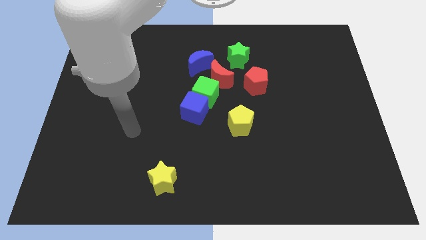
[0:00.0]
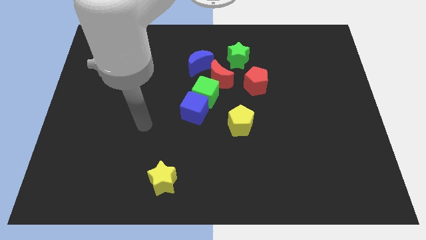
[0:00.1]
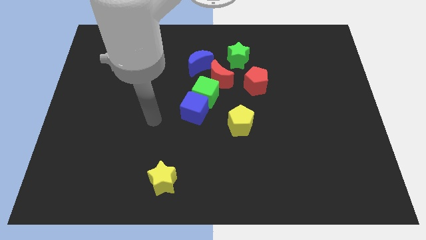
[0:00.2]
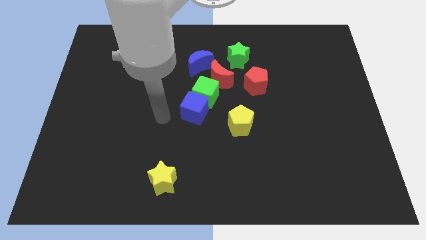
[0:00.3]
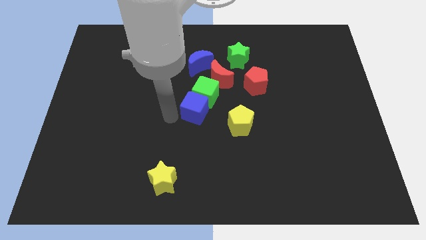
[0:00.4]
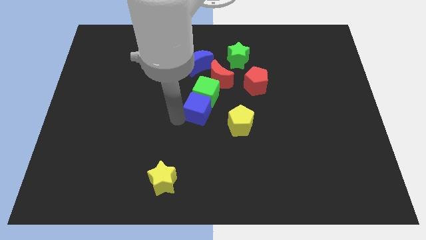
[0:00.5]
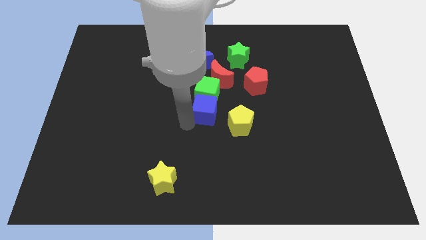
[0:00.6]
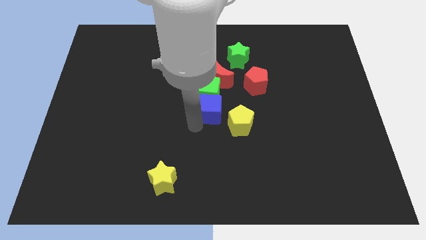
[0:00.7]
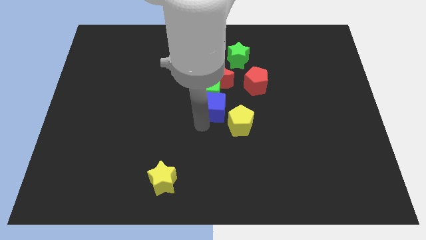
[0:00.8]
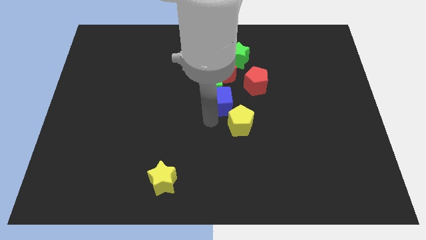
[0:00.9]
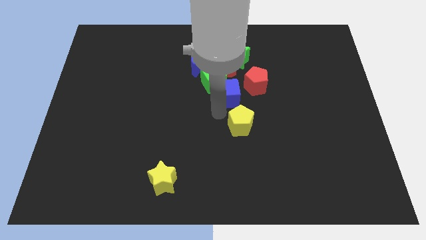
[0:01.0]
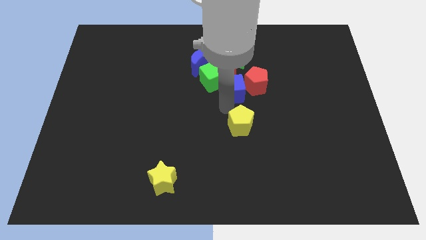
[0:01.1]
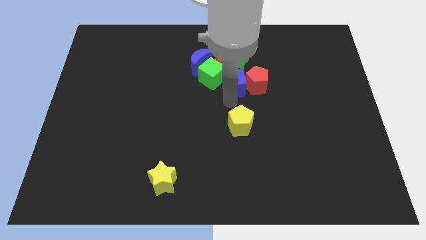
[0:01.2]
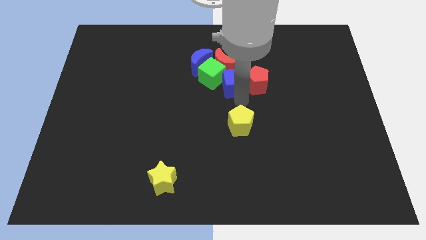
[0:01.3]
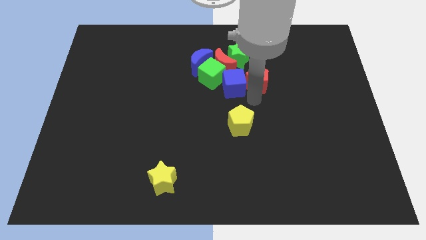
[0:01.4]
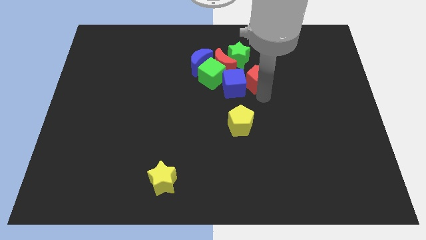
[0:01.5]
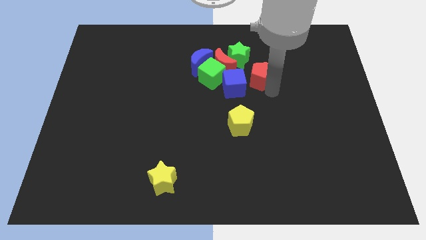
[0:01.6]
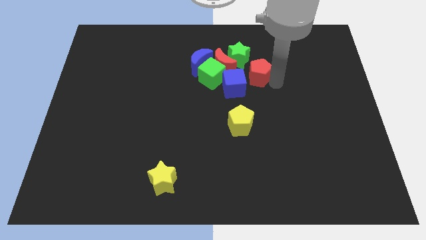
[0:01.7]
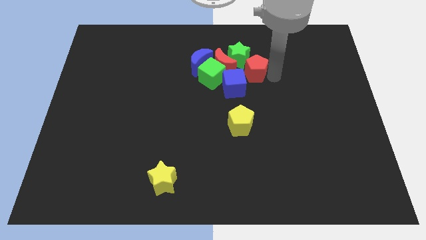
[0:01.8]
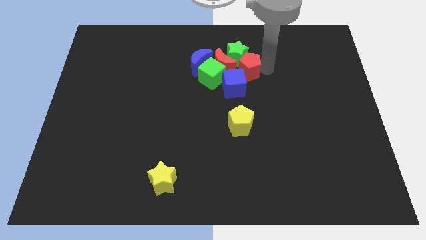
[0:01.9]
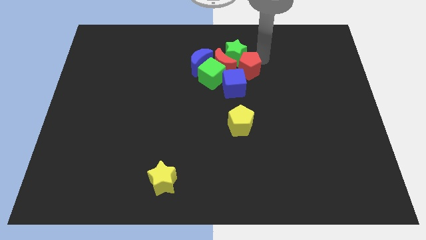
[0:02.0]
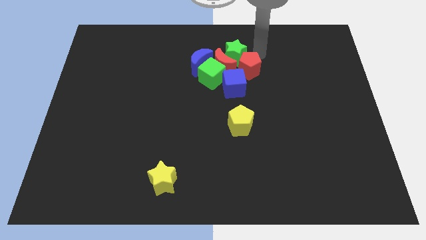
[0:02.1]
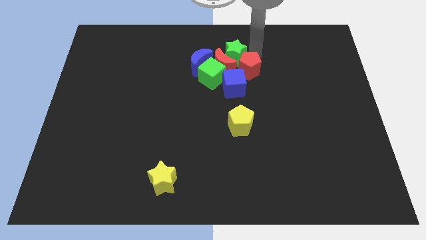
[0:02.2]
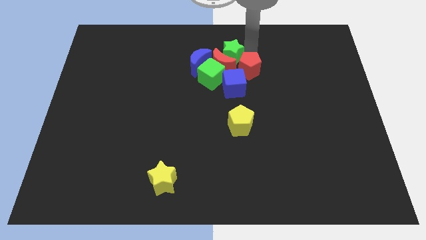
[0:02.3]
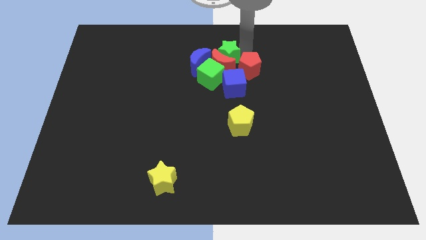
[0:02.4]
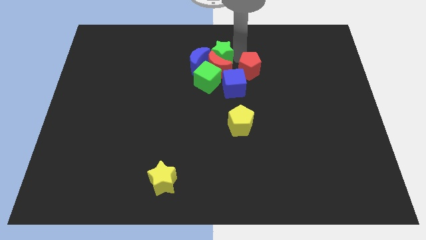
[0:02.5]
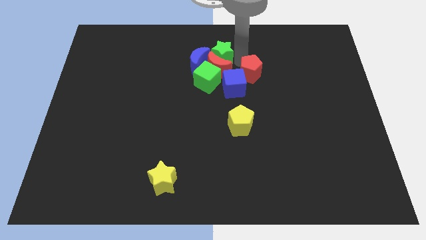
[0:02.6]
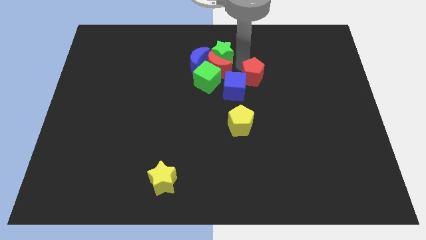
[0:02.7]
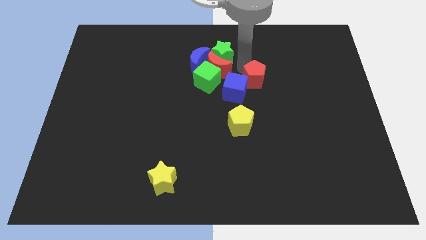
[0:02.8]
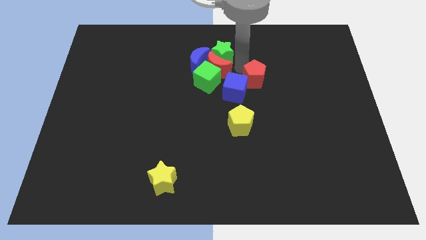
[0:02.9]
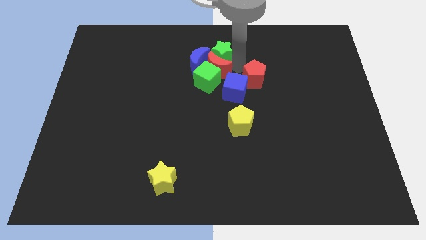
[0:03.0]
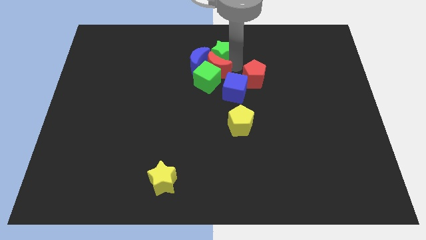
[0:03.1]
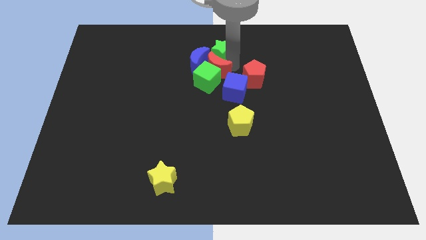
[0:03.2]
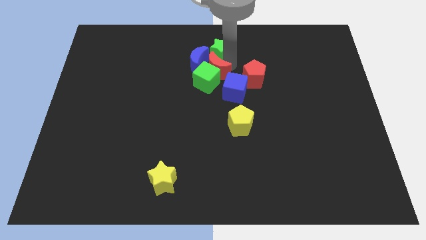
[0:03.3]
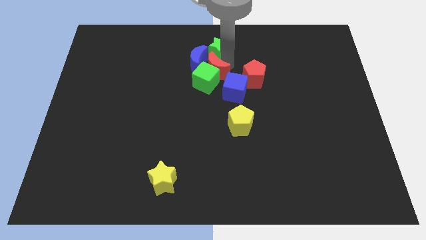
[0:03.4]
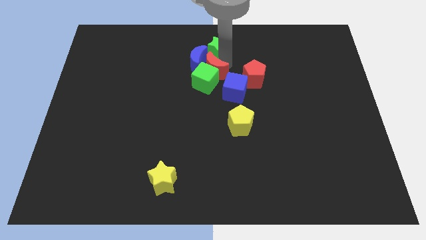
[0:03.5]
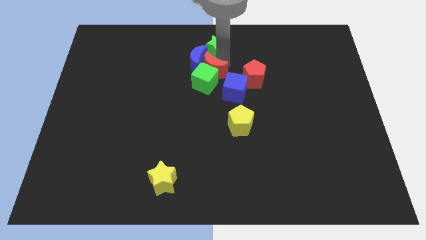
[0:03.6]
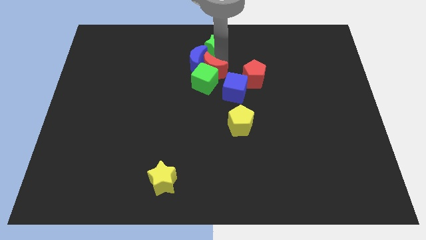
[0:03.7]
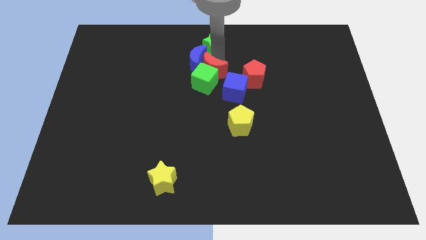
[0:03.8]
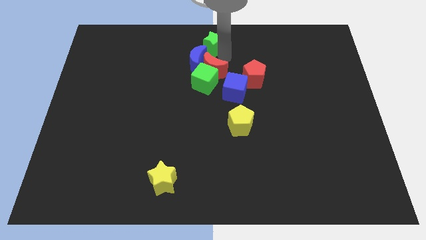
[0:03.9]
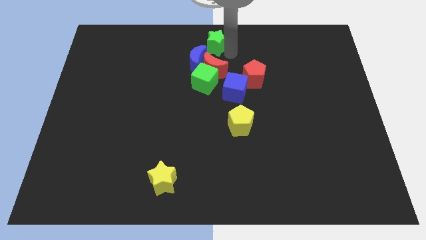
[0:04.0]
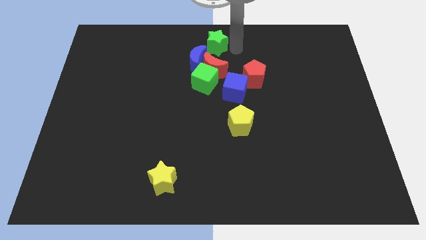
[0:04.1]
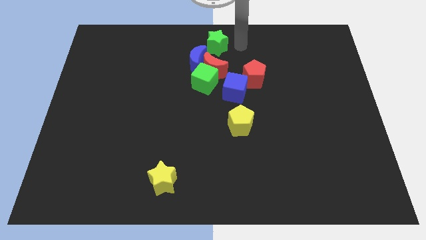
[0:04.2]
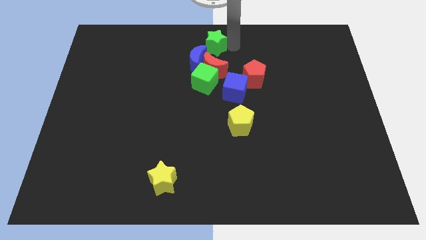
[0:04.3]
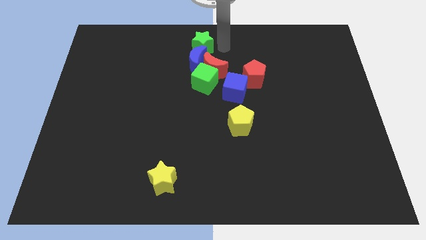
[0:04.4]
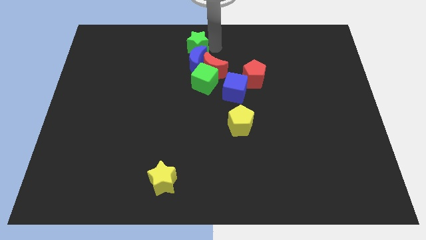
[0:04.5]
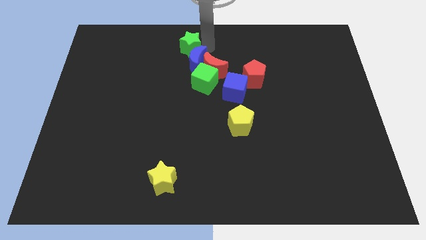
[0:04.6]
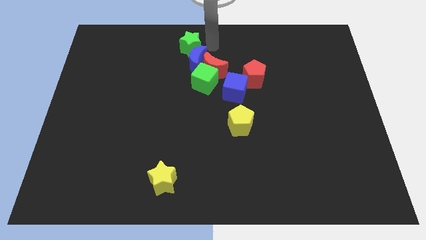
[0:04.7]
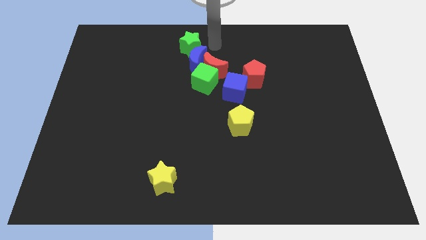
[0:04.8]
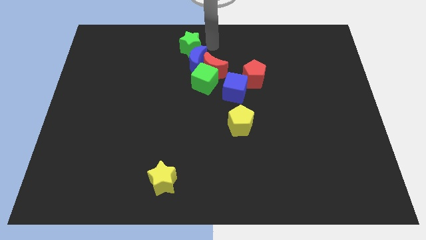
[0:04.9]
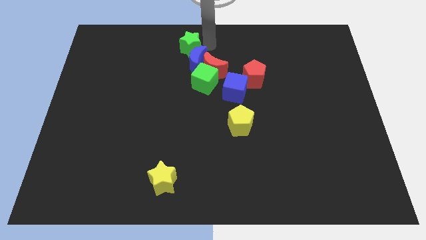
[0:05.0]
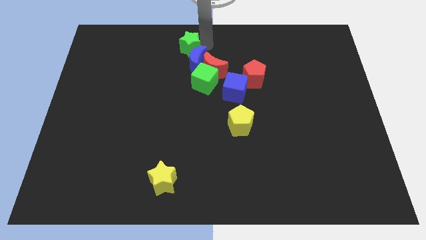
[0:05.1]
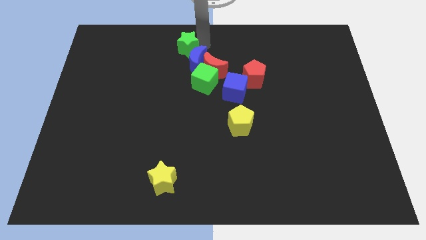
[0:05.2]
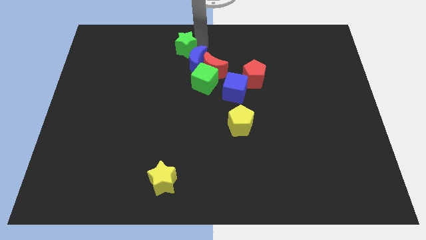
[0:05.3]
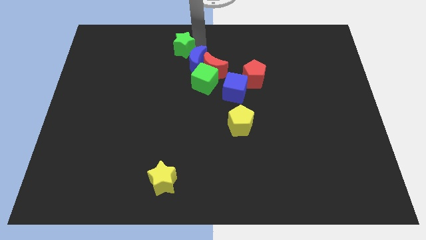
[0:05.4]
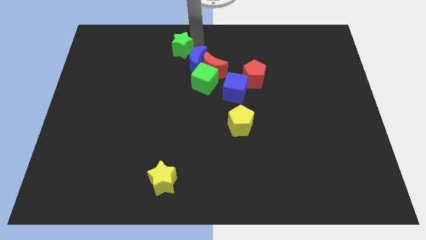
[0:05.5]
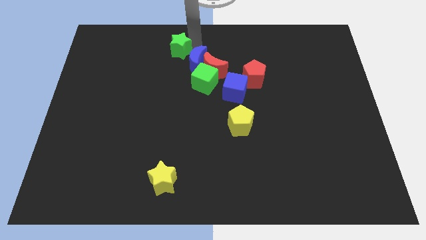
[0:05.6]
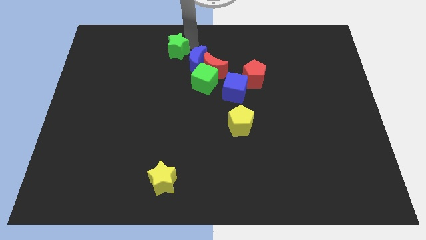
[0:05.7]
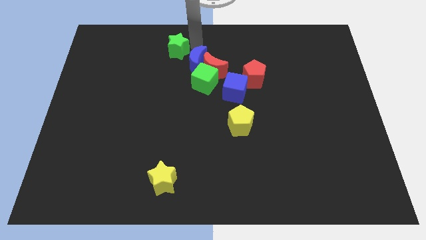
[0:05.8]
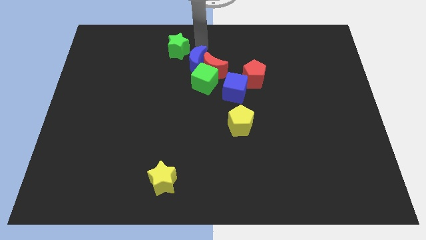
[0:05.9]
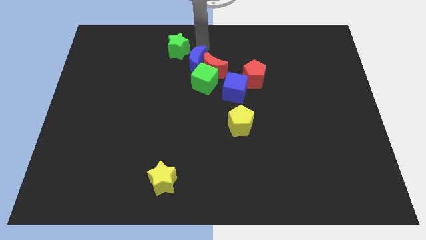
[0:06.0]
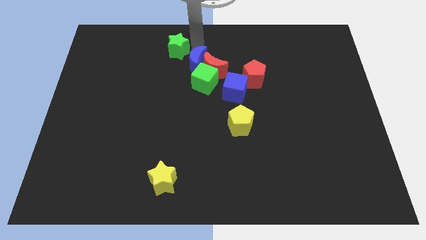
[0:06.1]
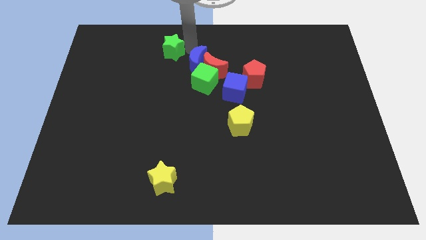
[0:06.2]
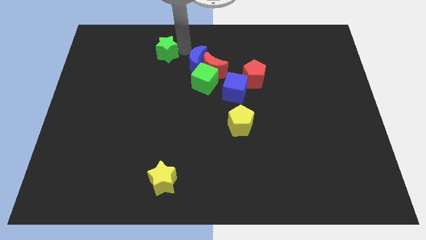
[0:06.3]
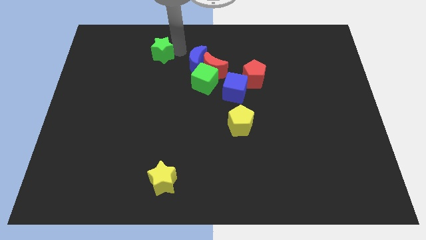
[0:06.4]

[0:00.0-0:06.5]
slide the green star to the left

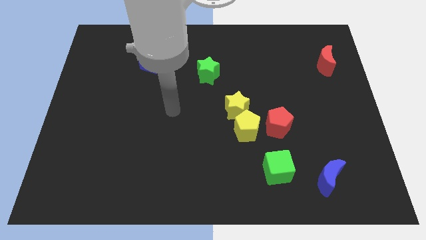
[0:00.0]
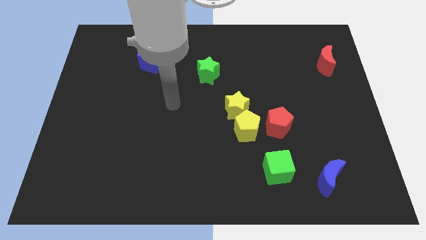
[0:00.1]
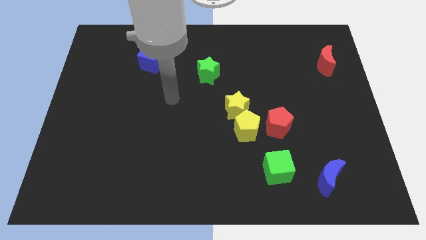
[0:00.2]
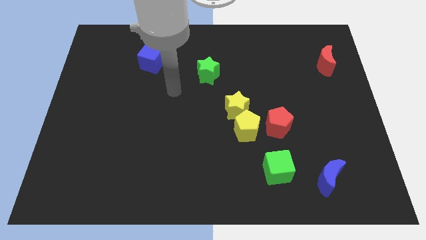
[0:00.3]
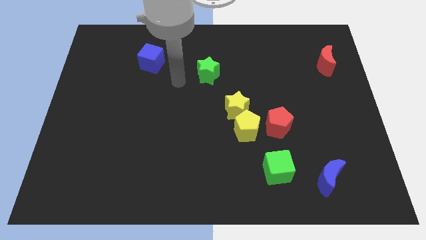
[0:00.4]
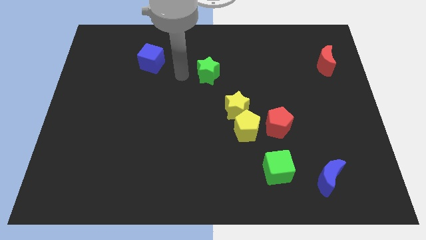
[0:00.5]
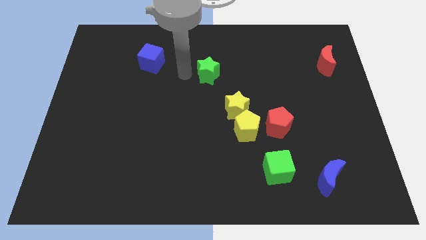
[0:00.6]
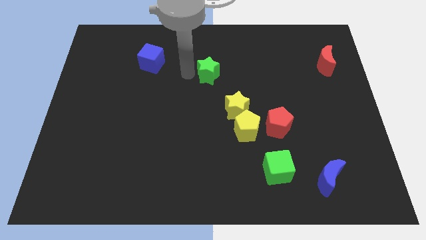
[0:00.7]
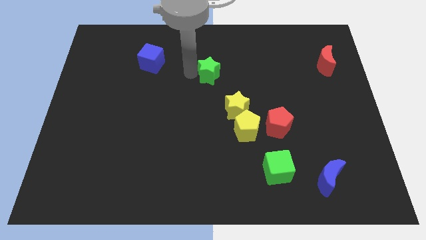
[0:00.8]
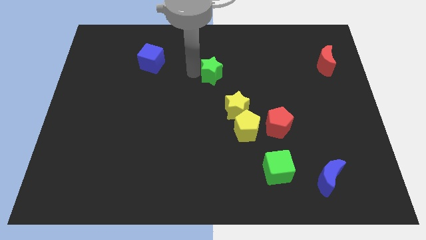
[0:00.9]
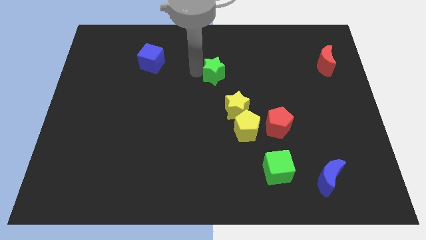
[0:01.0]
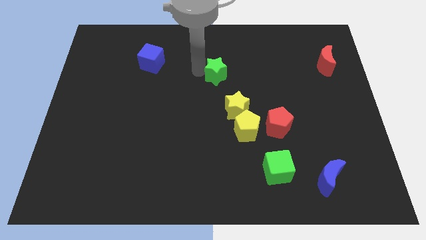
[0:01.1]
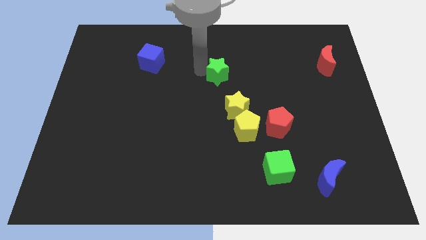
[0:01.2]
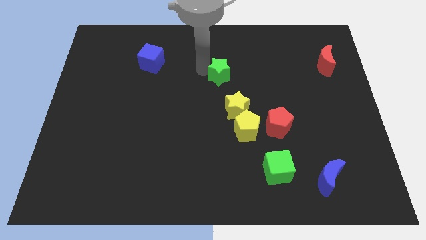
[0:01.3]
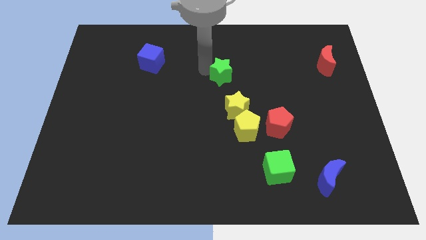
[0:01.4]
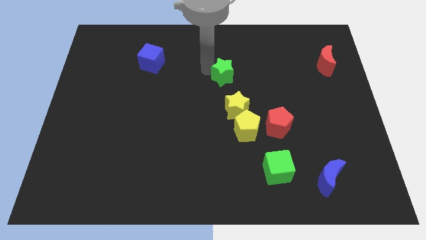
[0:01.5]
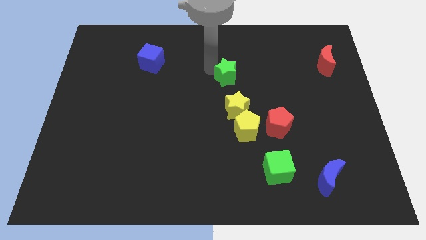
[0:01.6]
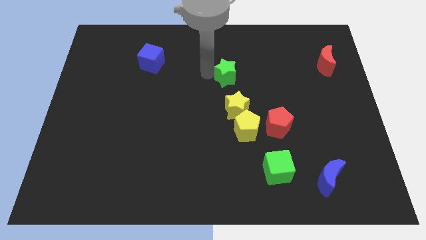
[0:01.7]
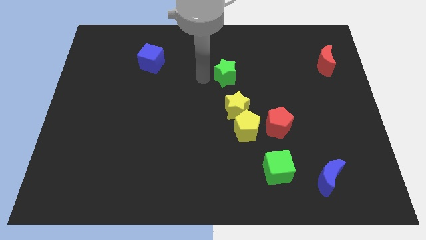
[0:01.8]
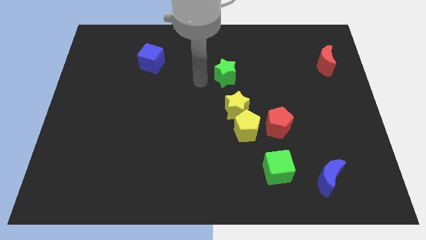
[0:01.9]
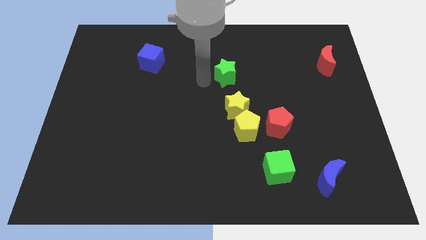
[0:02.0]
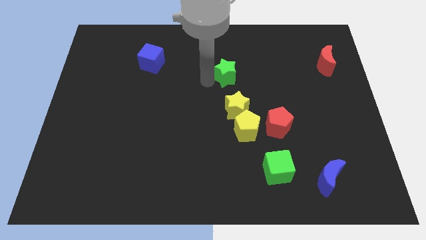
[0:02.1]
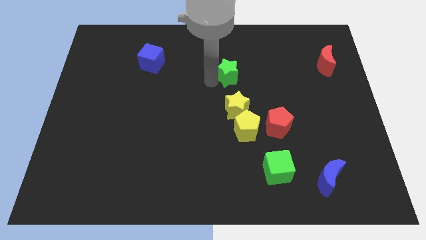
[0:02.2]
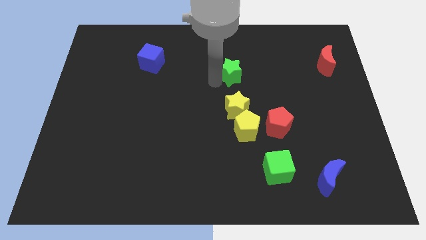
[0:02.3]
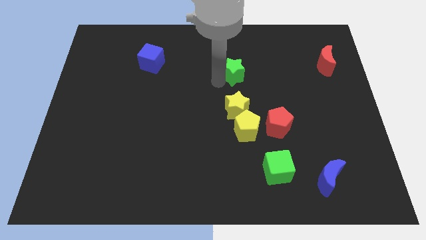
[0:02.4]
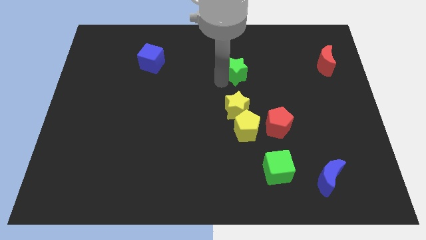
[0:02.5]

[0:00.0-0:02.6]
slide the green star right somewhat
